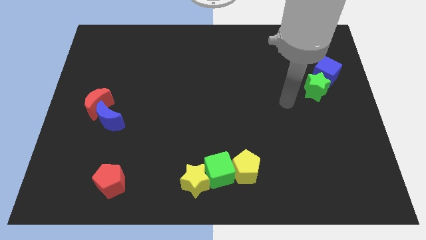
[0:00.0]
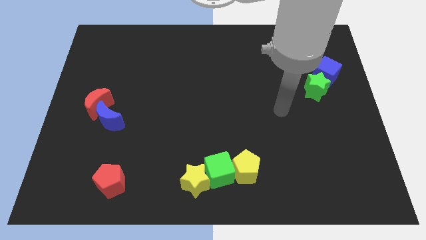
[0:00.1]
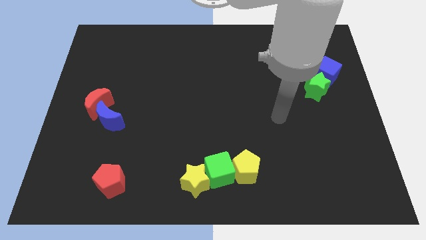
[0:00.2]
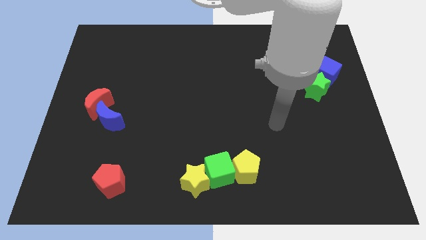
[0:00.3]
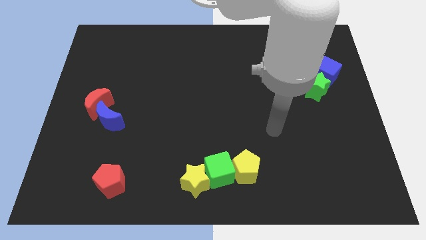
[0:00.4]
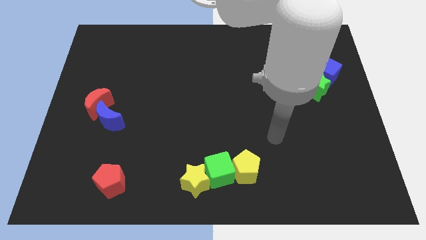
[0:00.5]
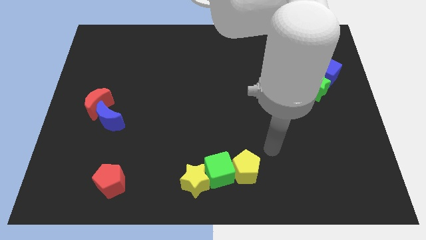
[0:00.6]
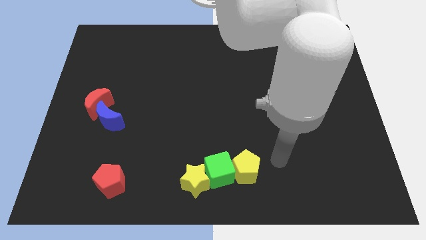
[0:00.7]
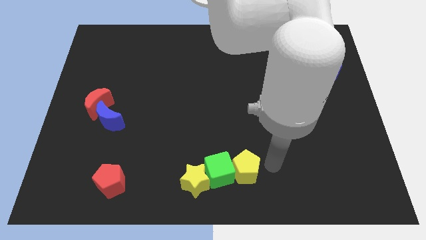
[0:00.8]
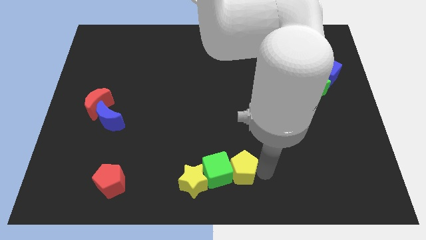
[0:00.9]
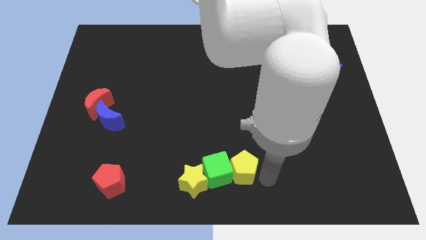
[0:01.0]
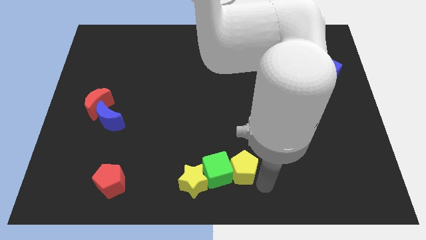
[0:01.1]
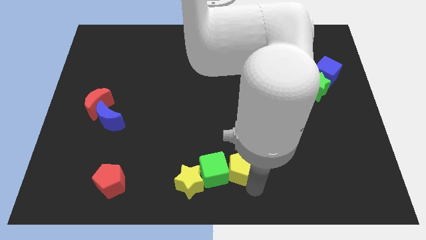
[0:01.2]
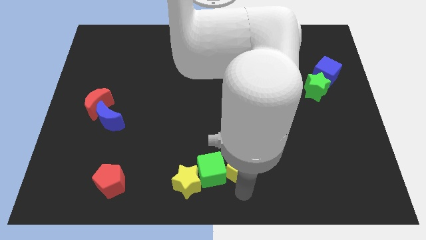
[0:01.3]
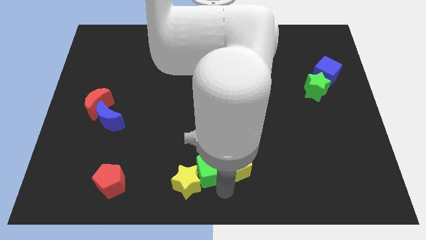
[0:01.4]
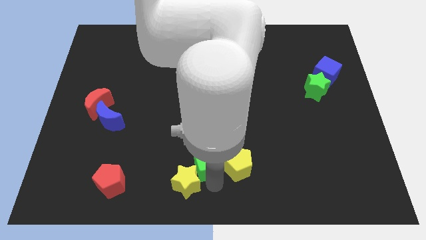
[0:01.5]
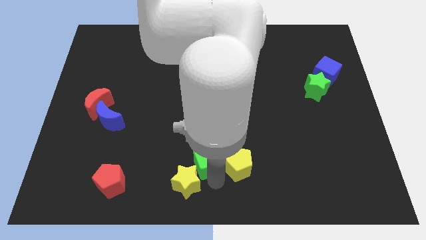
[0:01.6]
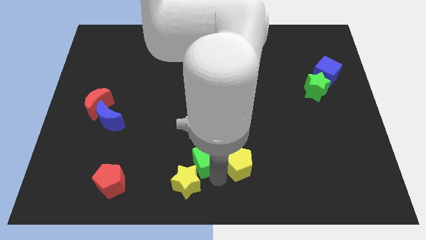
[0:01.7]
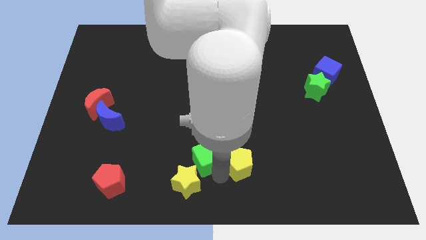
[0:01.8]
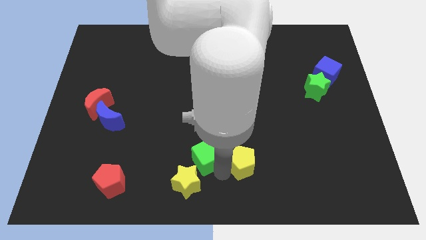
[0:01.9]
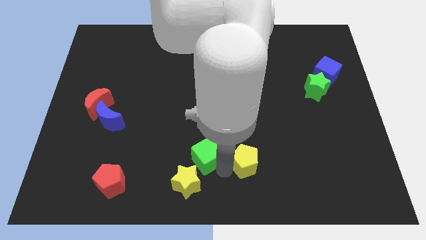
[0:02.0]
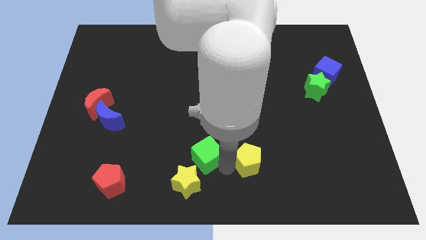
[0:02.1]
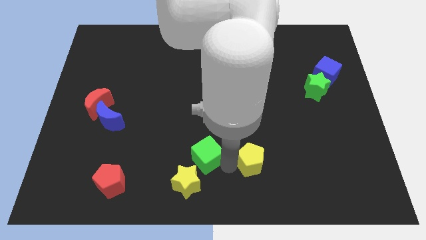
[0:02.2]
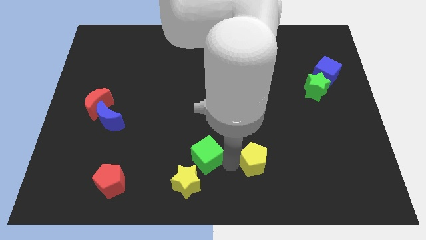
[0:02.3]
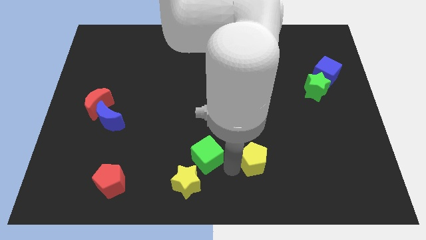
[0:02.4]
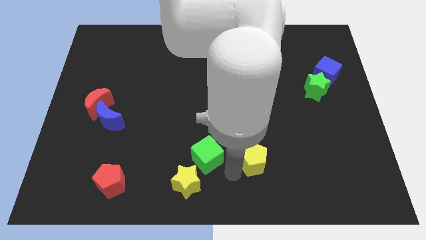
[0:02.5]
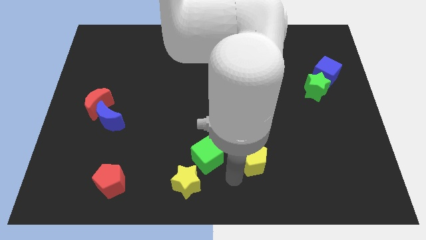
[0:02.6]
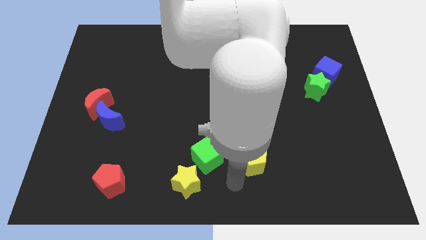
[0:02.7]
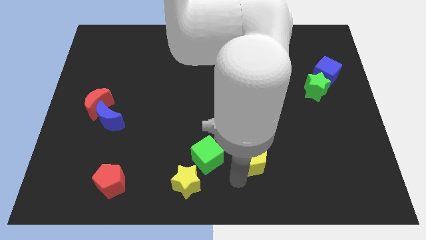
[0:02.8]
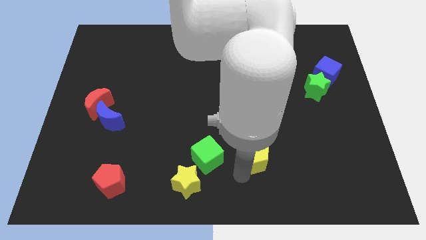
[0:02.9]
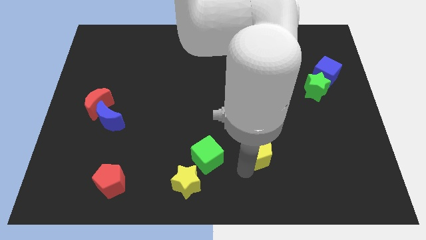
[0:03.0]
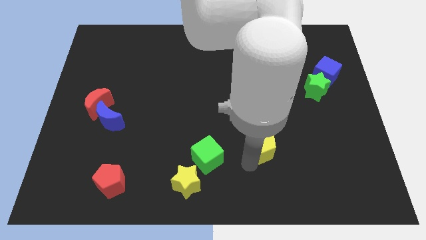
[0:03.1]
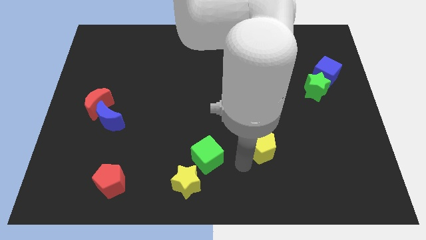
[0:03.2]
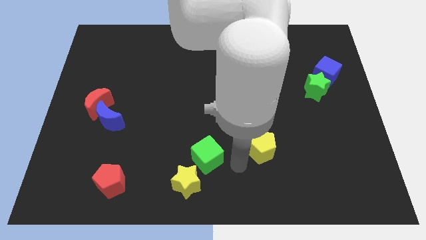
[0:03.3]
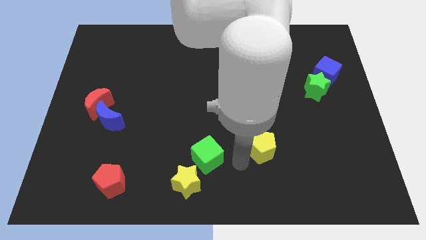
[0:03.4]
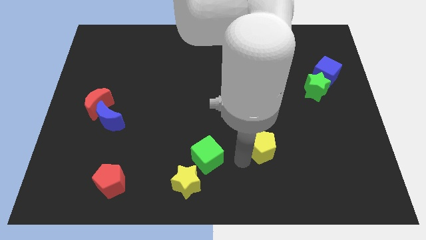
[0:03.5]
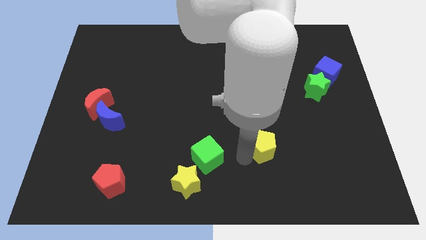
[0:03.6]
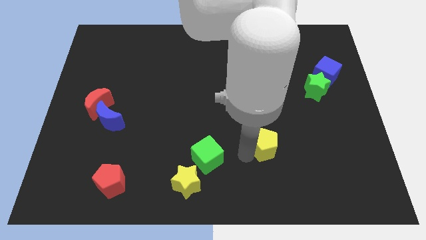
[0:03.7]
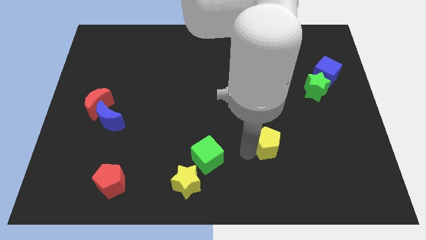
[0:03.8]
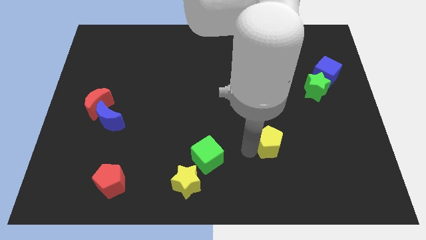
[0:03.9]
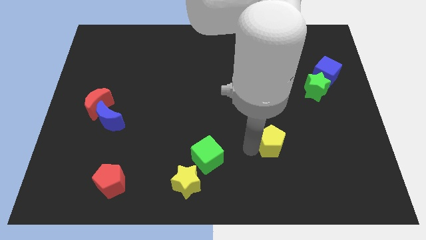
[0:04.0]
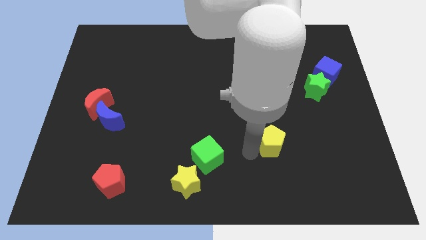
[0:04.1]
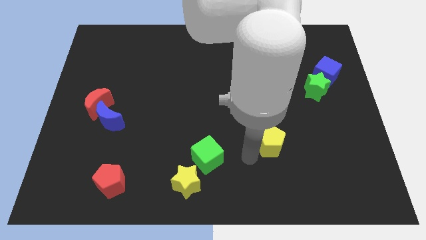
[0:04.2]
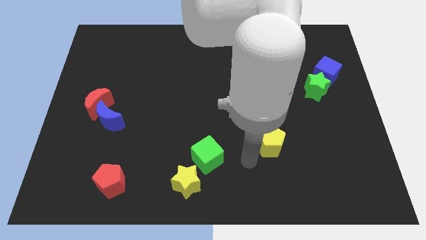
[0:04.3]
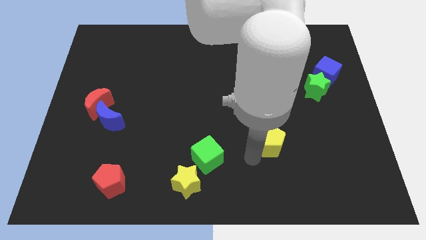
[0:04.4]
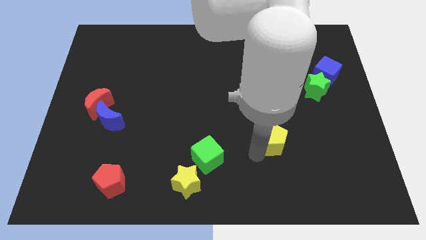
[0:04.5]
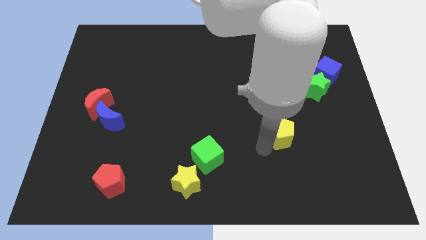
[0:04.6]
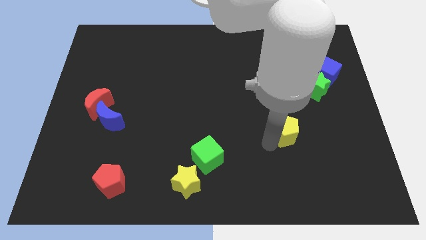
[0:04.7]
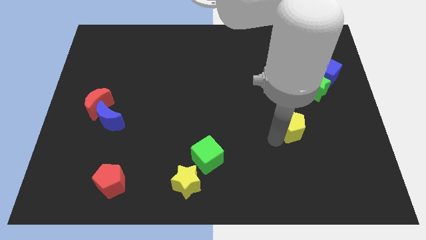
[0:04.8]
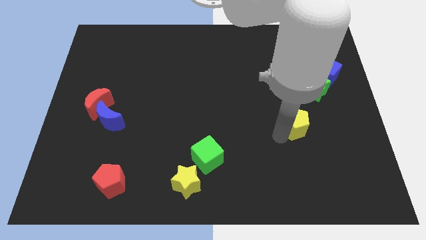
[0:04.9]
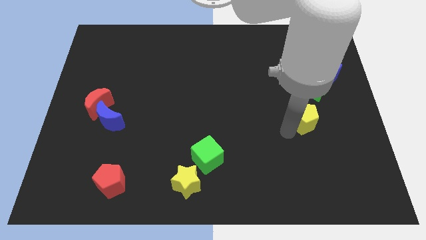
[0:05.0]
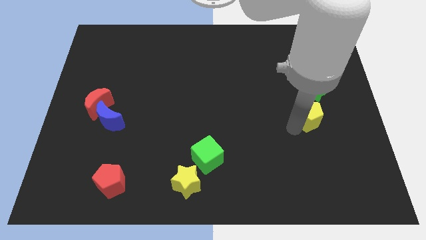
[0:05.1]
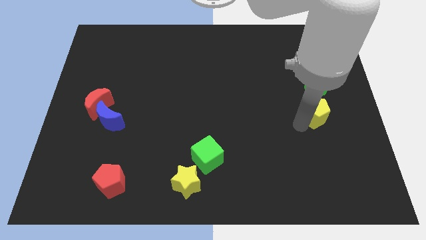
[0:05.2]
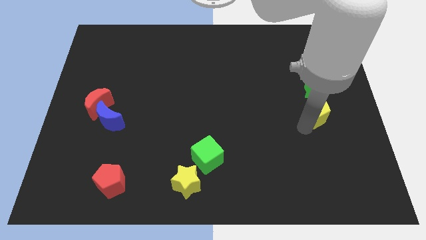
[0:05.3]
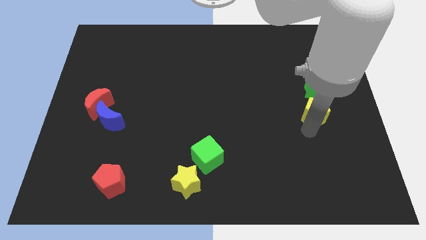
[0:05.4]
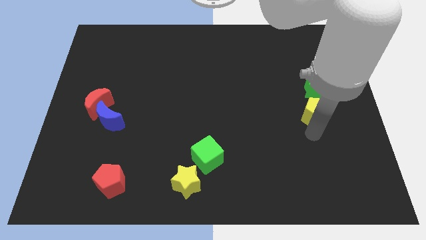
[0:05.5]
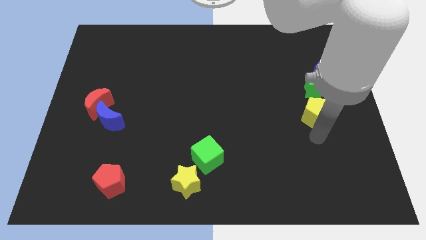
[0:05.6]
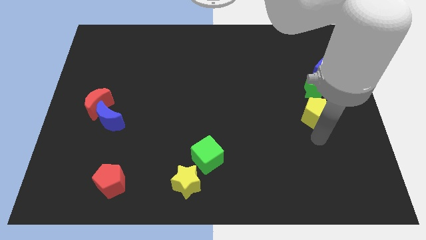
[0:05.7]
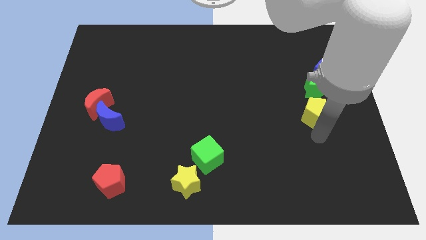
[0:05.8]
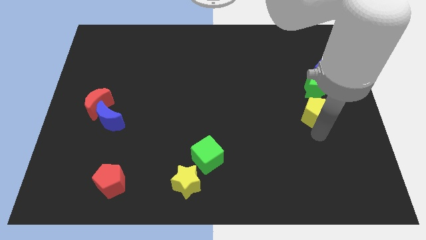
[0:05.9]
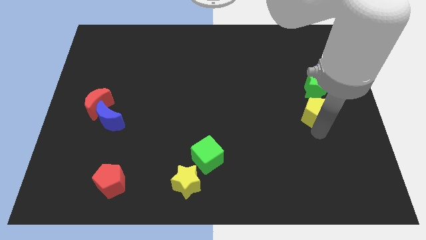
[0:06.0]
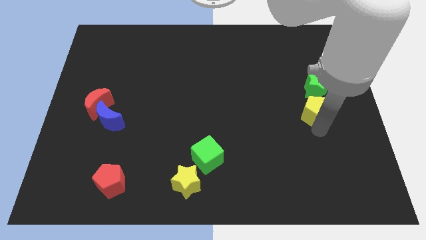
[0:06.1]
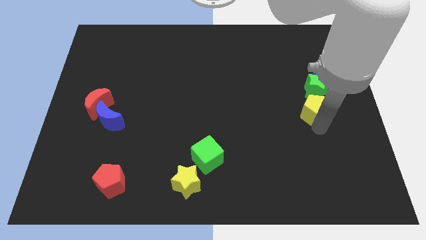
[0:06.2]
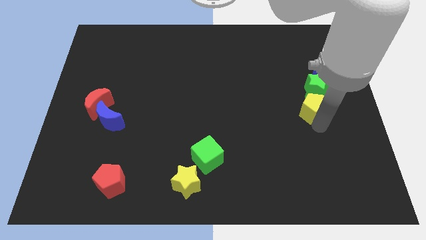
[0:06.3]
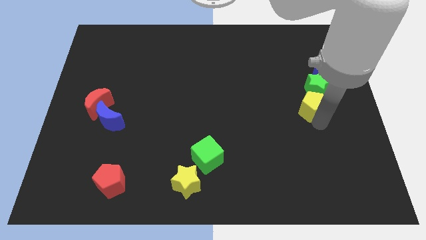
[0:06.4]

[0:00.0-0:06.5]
slide the yellow pentagon to the green star

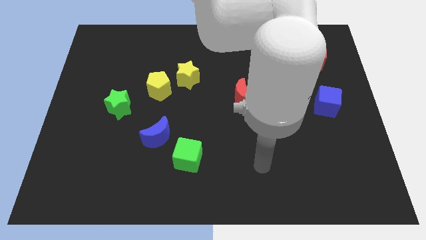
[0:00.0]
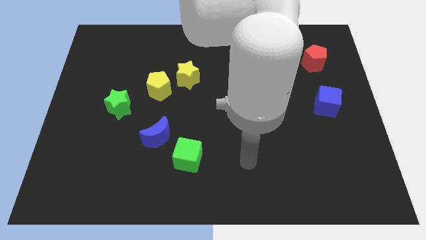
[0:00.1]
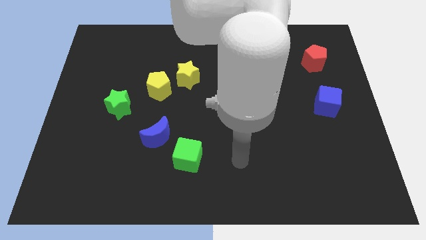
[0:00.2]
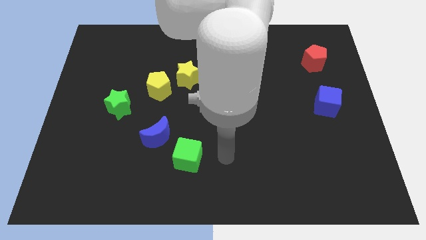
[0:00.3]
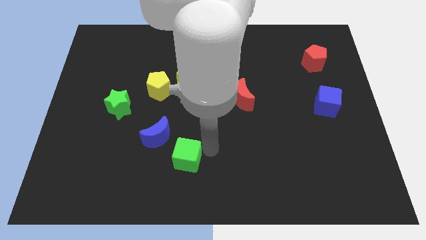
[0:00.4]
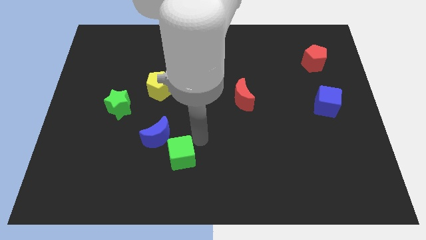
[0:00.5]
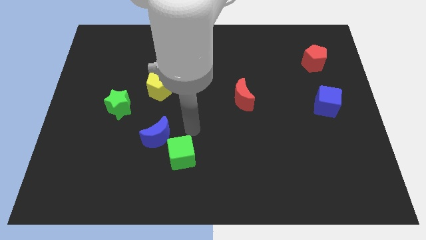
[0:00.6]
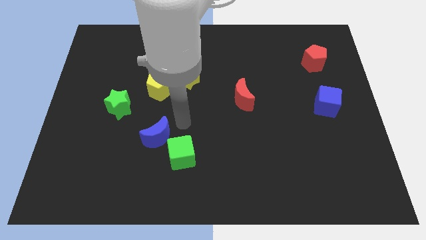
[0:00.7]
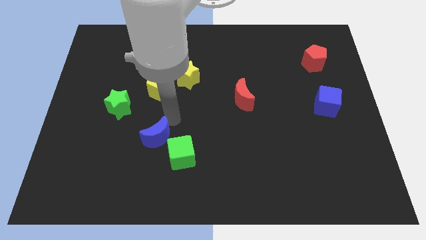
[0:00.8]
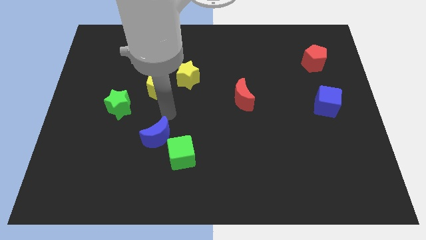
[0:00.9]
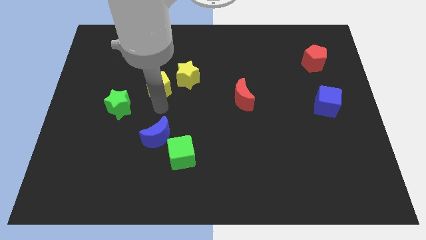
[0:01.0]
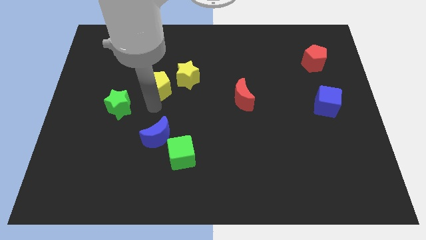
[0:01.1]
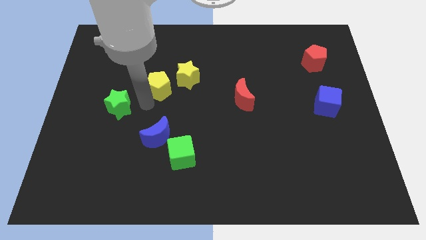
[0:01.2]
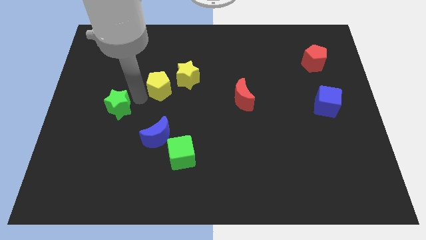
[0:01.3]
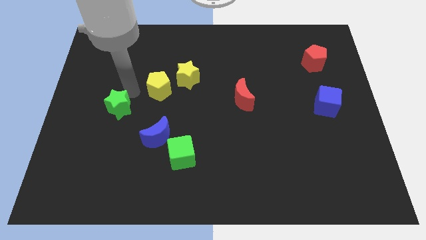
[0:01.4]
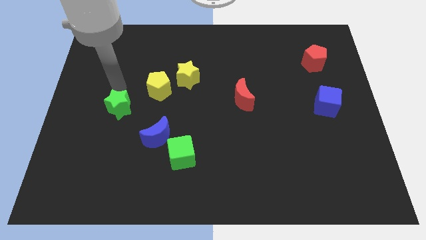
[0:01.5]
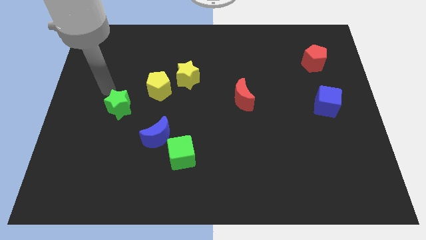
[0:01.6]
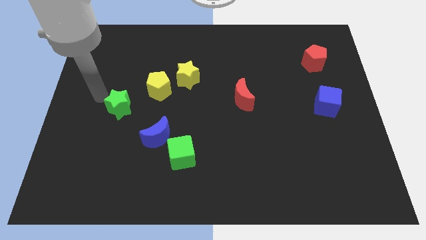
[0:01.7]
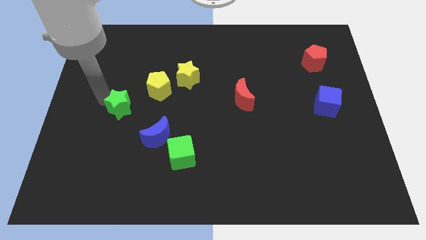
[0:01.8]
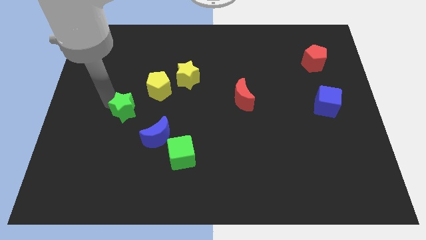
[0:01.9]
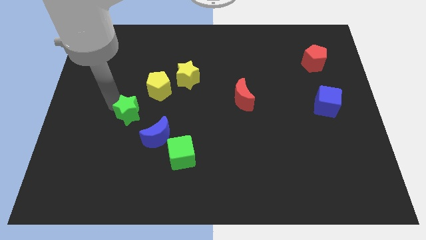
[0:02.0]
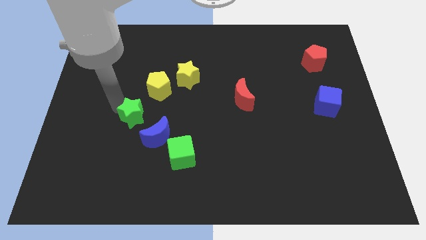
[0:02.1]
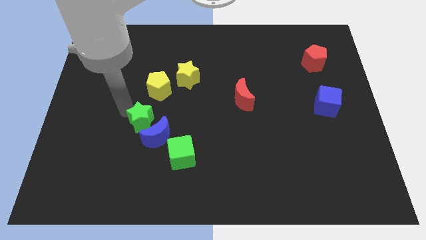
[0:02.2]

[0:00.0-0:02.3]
push the green star close to the blue moon
